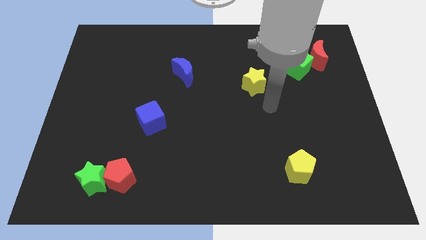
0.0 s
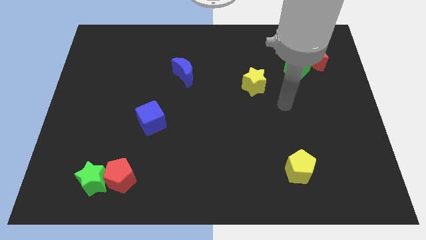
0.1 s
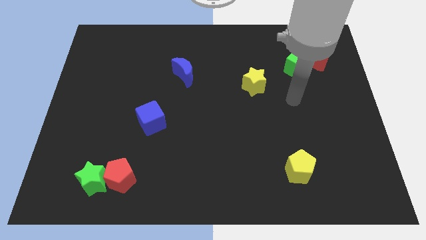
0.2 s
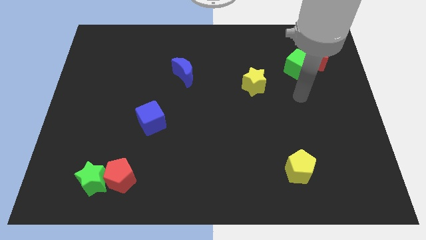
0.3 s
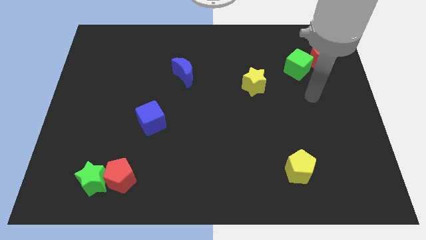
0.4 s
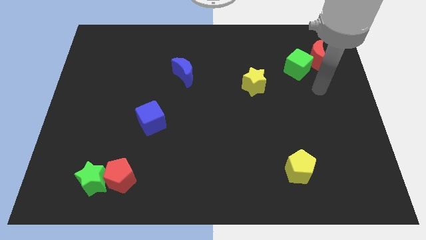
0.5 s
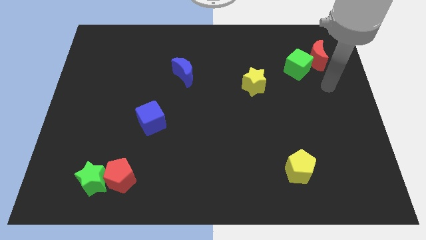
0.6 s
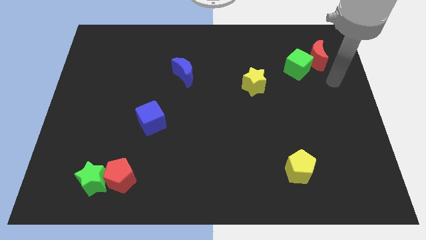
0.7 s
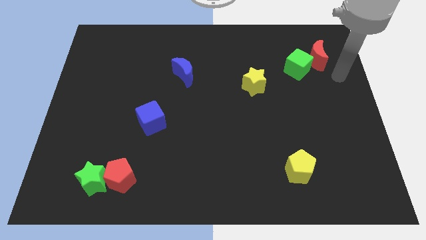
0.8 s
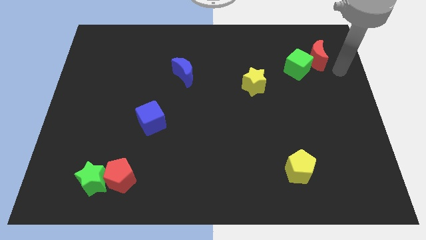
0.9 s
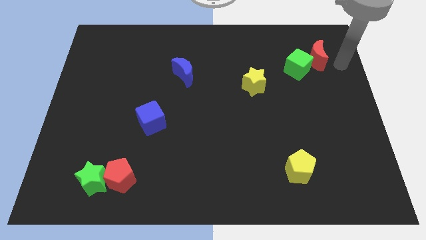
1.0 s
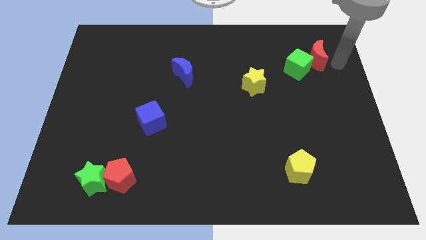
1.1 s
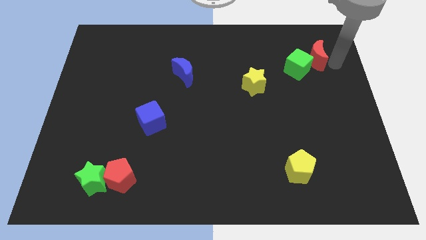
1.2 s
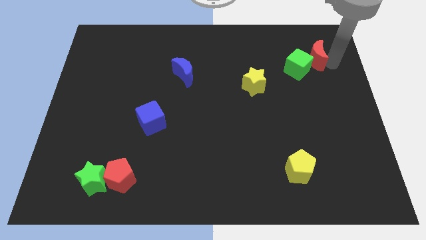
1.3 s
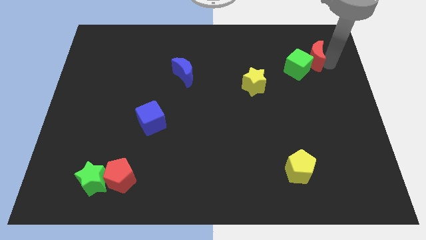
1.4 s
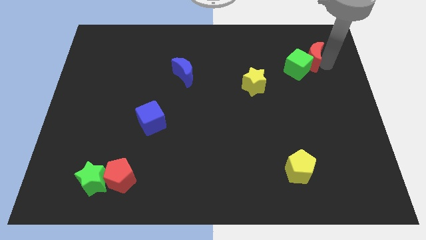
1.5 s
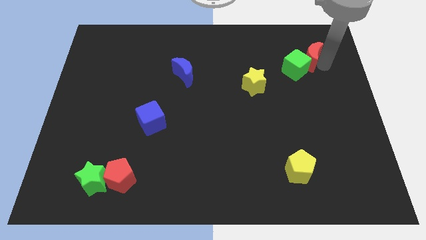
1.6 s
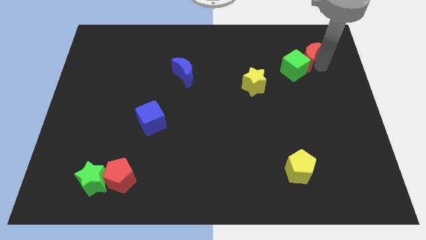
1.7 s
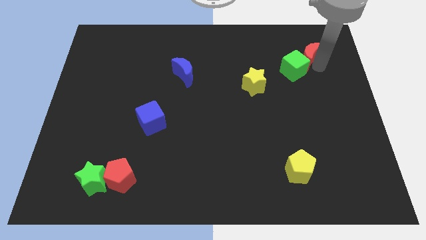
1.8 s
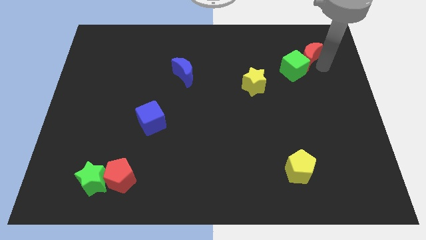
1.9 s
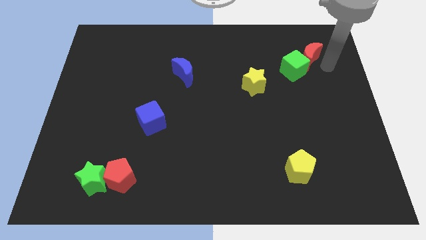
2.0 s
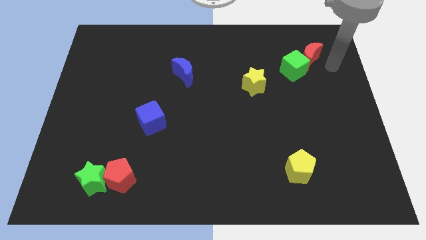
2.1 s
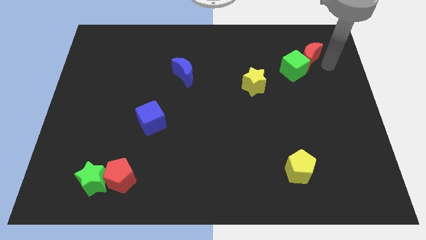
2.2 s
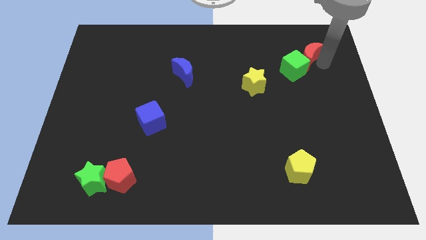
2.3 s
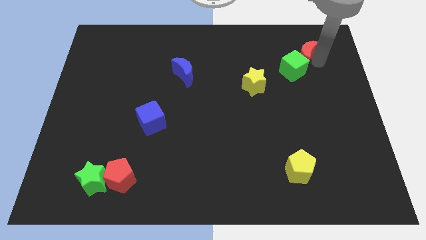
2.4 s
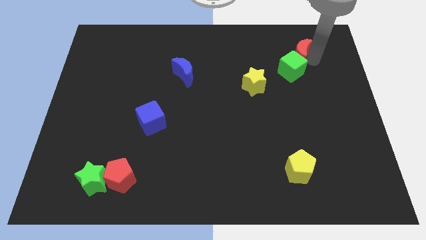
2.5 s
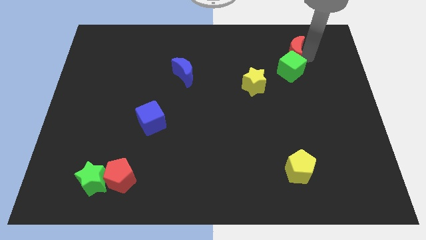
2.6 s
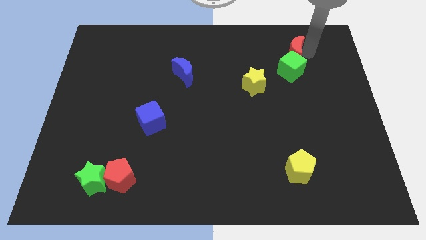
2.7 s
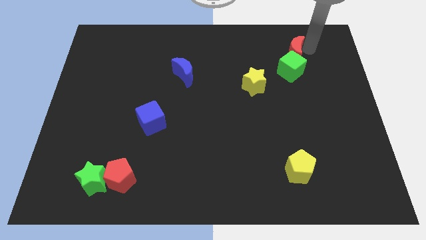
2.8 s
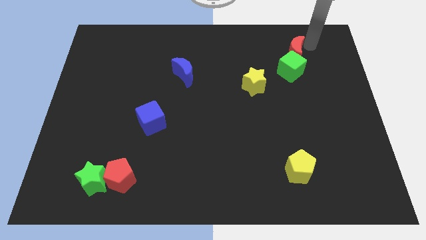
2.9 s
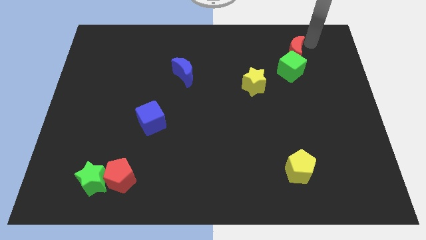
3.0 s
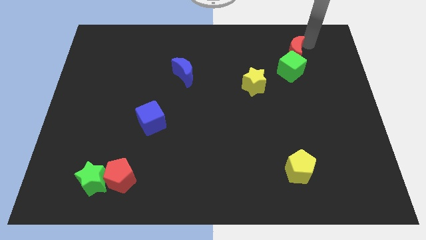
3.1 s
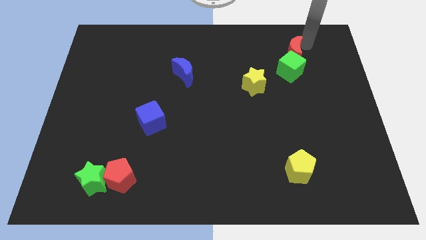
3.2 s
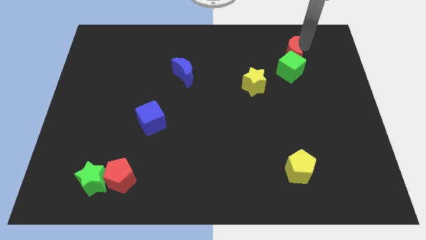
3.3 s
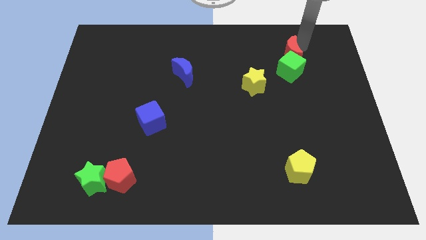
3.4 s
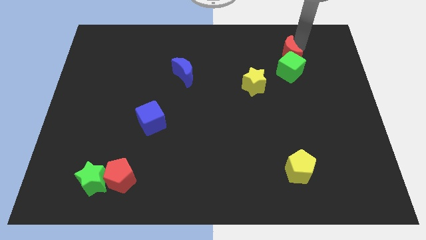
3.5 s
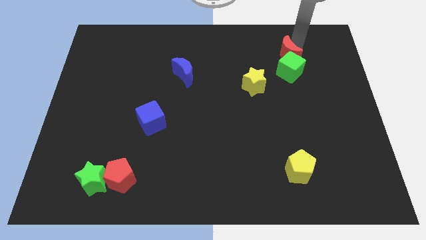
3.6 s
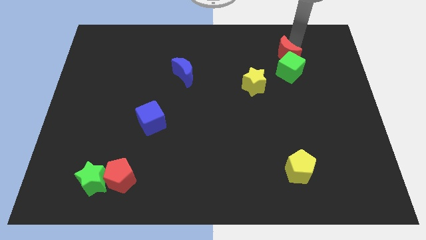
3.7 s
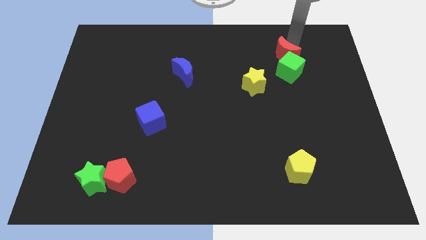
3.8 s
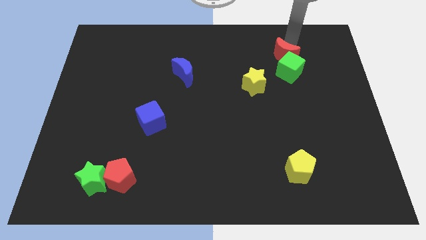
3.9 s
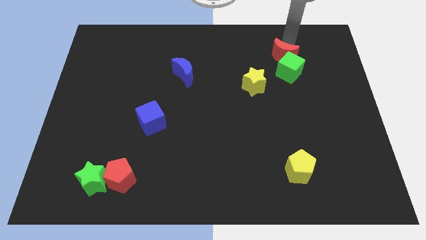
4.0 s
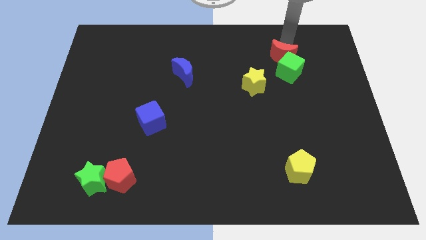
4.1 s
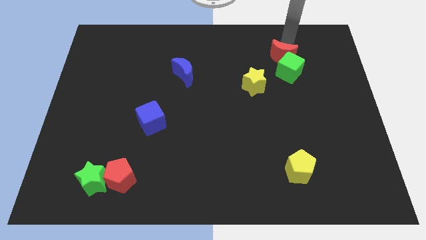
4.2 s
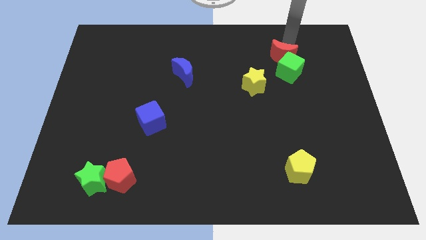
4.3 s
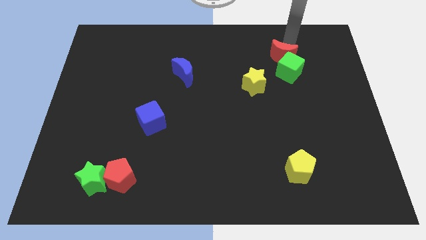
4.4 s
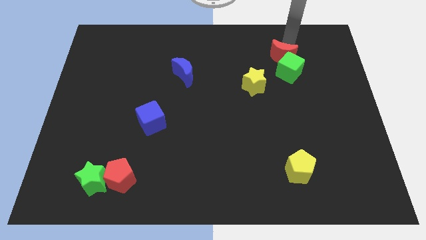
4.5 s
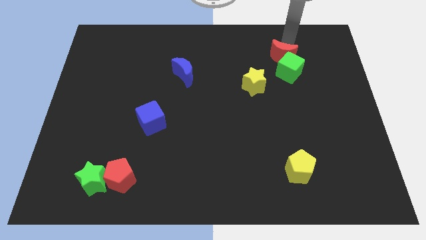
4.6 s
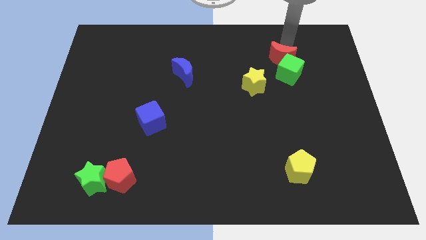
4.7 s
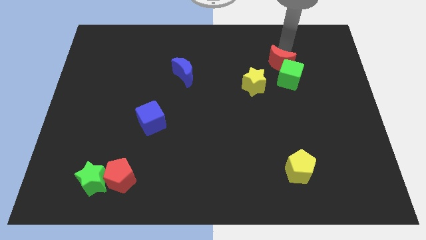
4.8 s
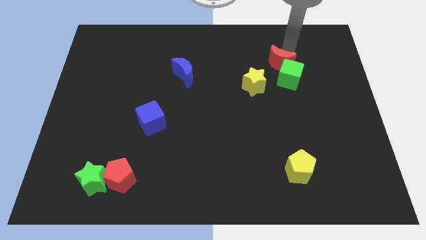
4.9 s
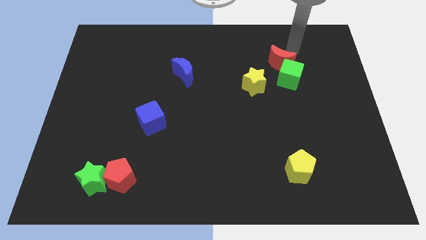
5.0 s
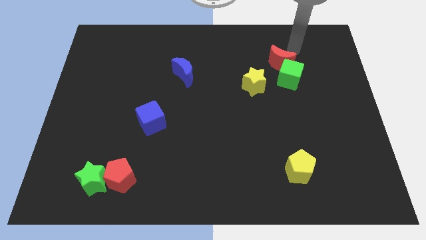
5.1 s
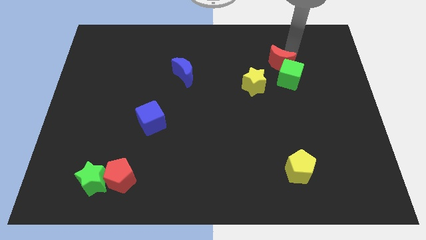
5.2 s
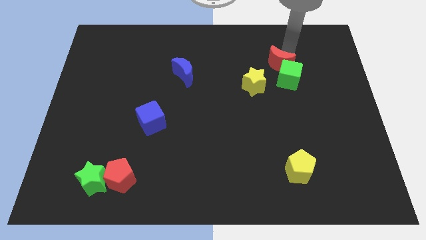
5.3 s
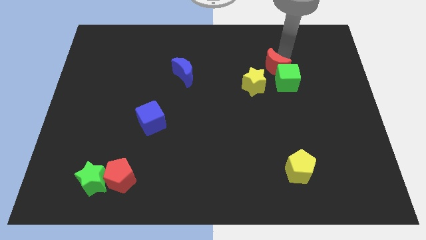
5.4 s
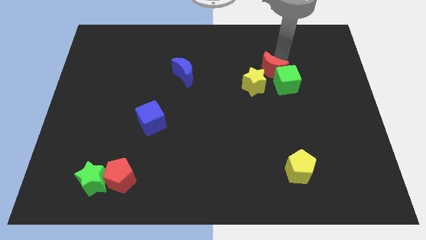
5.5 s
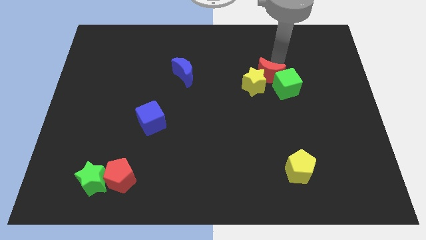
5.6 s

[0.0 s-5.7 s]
move the red moon towards the yellow star

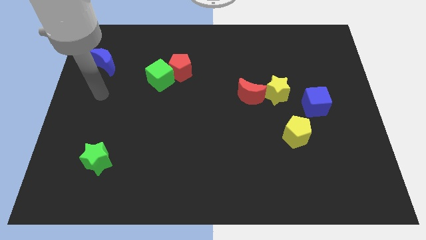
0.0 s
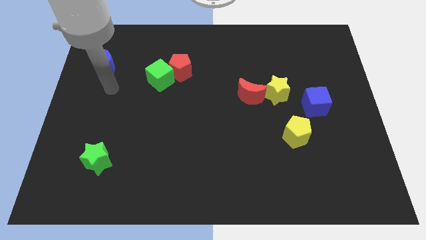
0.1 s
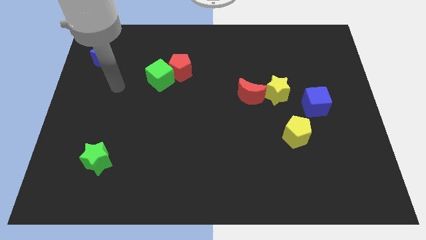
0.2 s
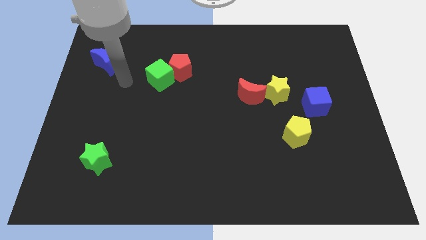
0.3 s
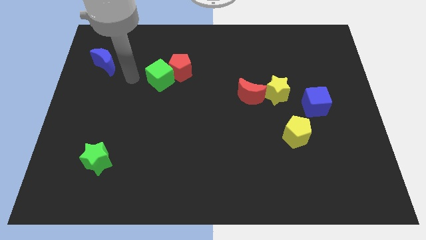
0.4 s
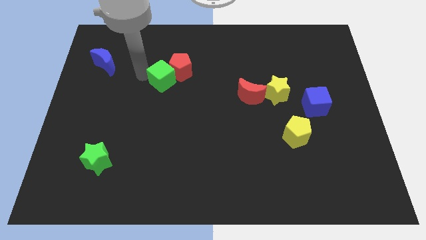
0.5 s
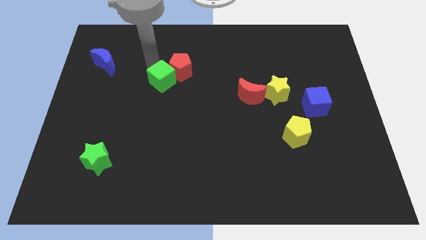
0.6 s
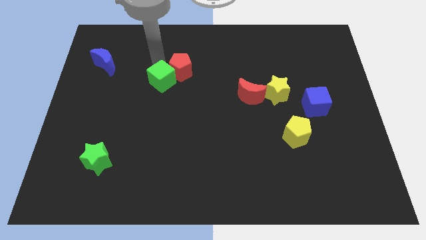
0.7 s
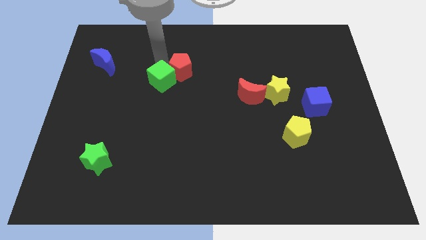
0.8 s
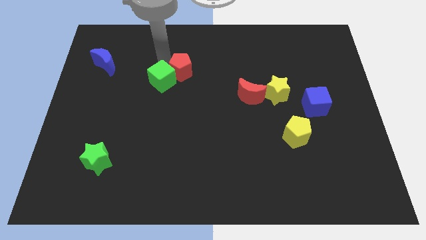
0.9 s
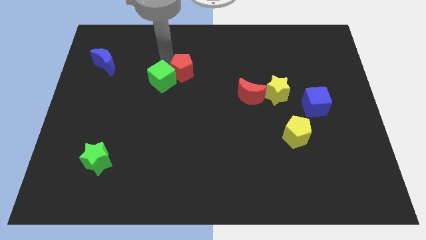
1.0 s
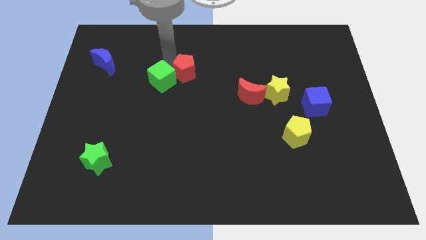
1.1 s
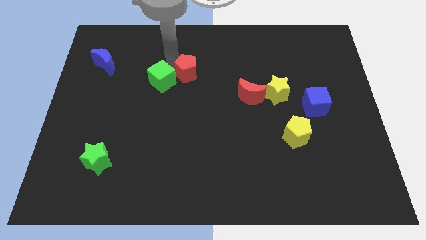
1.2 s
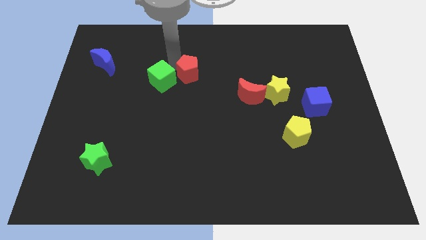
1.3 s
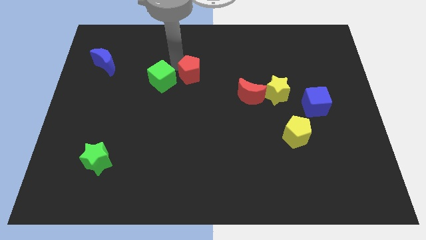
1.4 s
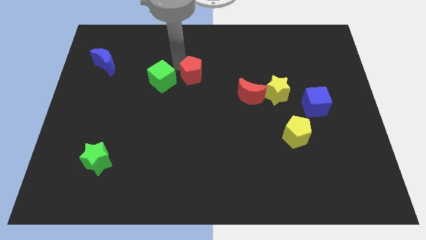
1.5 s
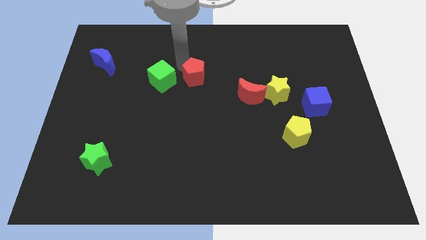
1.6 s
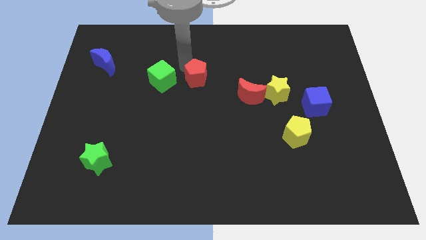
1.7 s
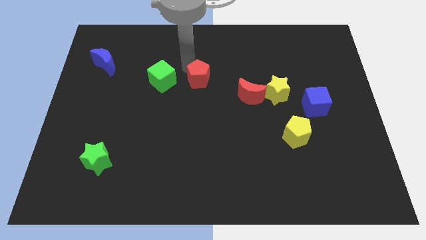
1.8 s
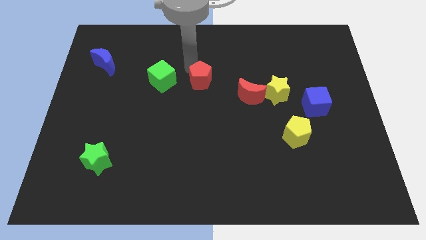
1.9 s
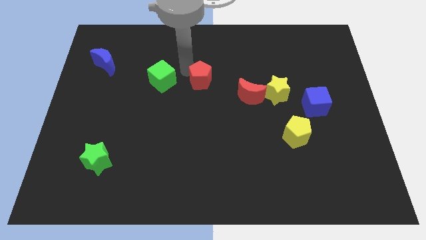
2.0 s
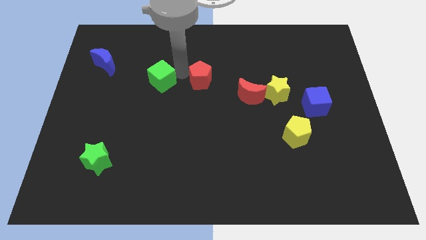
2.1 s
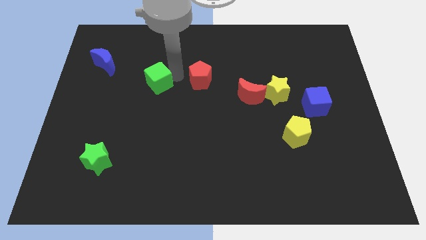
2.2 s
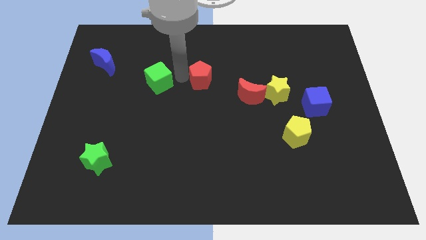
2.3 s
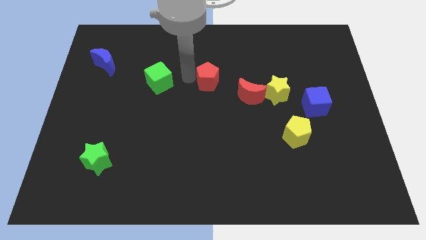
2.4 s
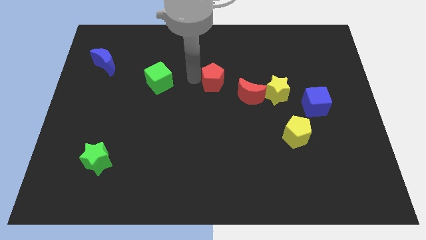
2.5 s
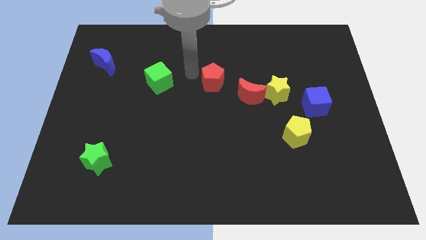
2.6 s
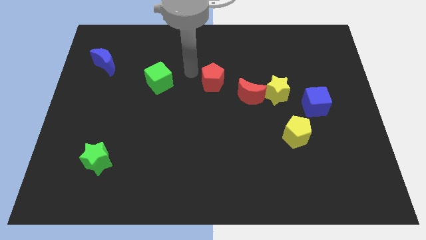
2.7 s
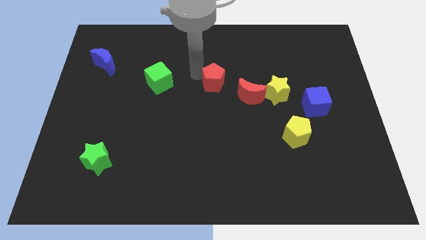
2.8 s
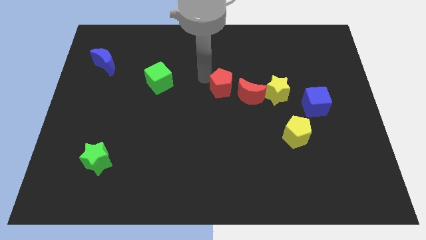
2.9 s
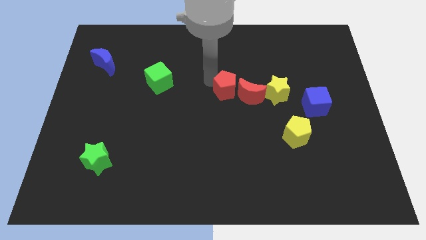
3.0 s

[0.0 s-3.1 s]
move the red pentagon towards the red moon
